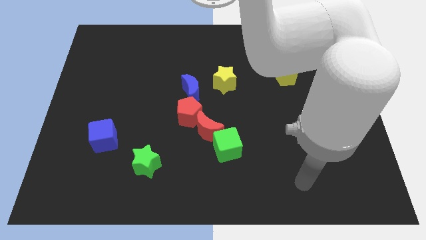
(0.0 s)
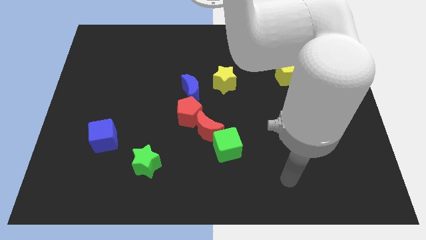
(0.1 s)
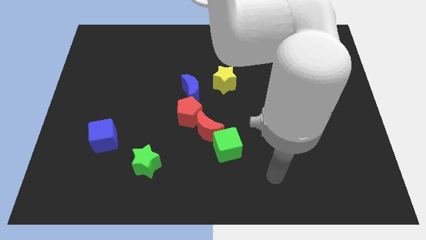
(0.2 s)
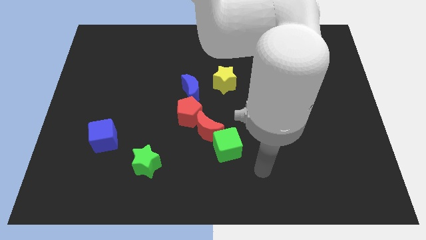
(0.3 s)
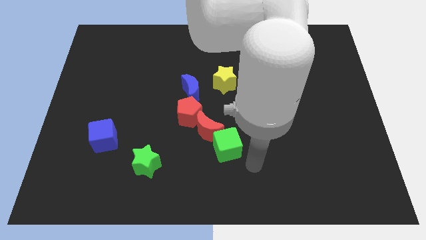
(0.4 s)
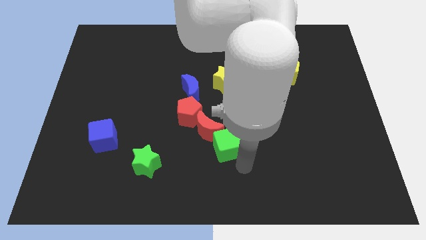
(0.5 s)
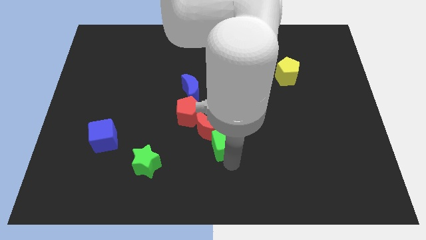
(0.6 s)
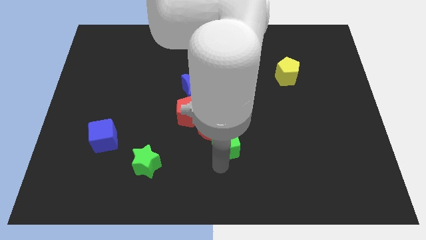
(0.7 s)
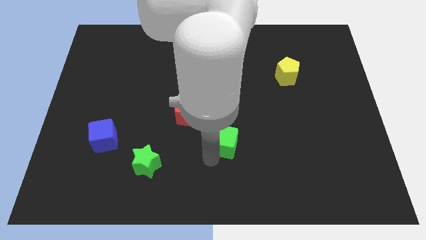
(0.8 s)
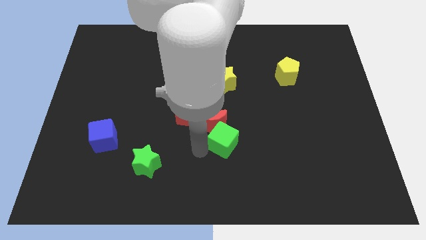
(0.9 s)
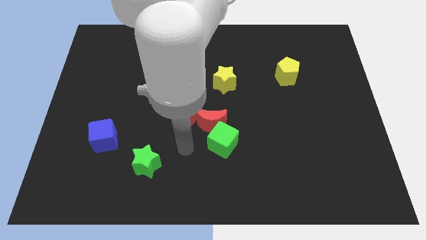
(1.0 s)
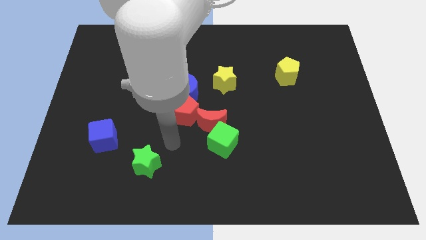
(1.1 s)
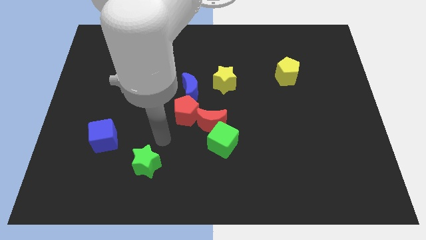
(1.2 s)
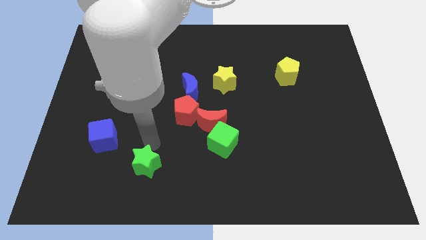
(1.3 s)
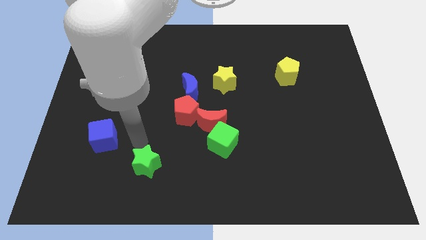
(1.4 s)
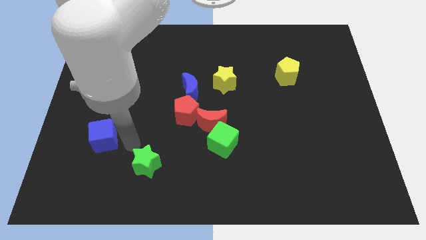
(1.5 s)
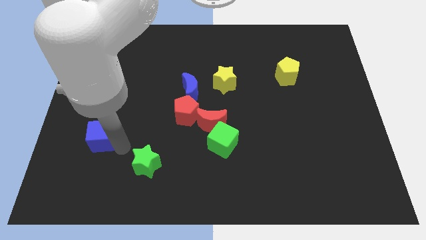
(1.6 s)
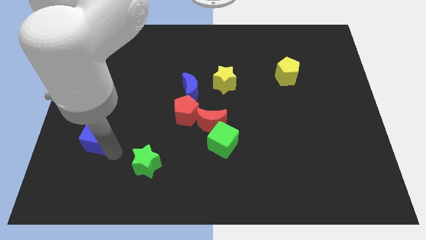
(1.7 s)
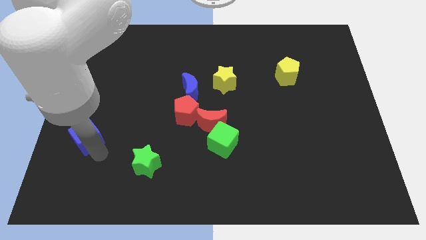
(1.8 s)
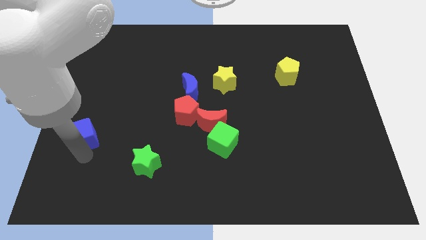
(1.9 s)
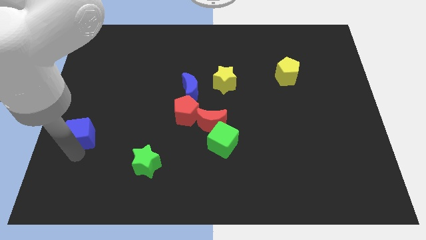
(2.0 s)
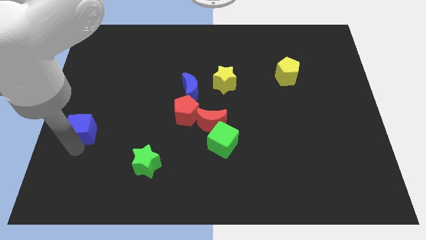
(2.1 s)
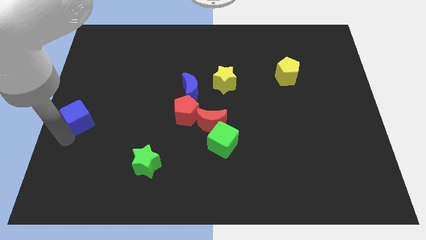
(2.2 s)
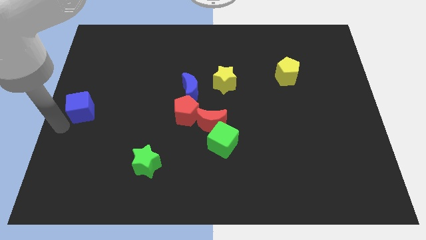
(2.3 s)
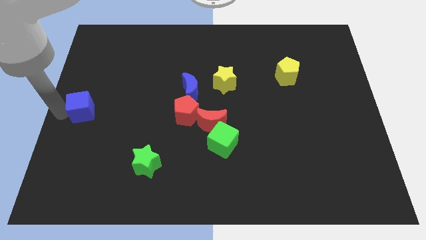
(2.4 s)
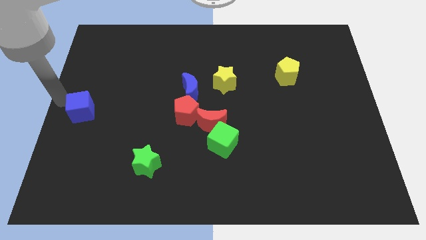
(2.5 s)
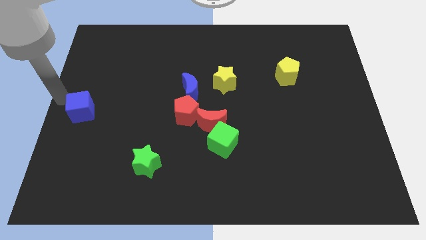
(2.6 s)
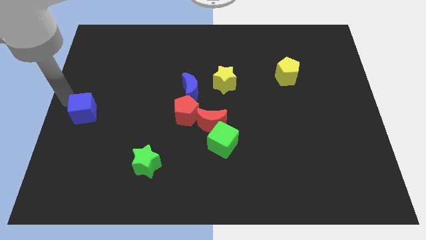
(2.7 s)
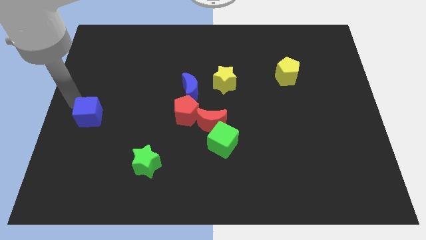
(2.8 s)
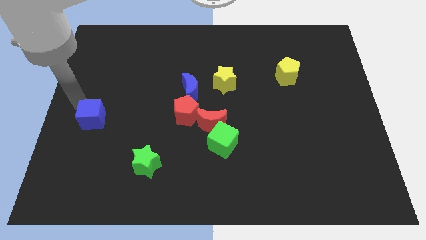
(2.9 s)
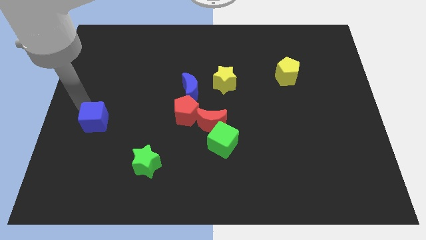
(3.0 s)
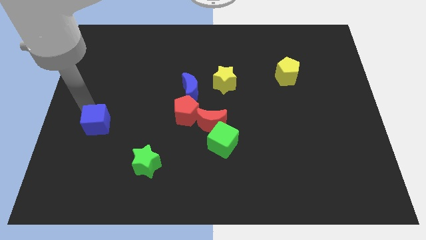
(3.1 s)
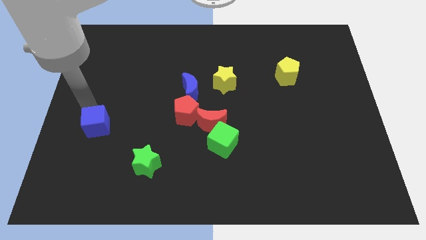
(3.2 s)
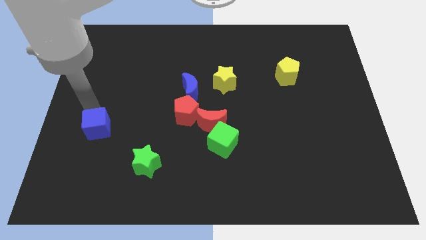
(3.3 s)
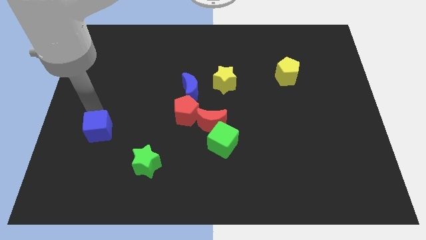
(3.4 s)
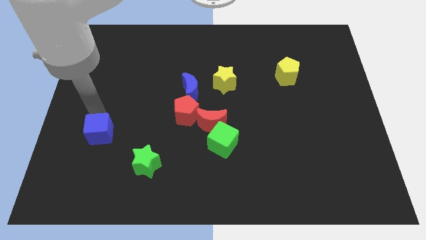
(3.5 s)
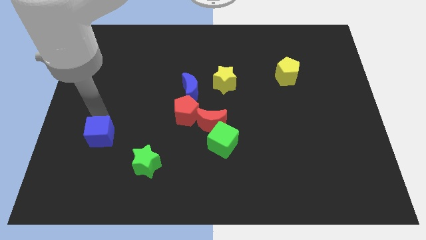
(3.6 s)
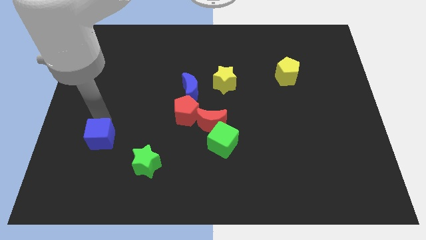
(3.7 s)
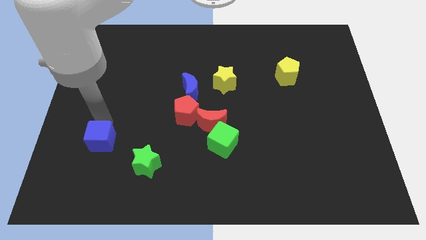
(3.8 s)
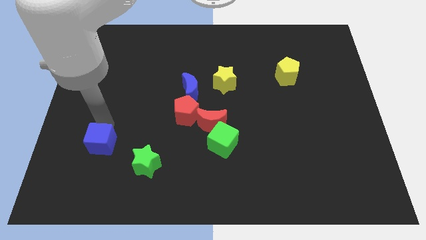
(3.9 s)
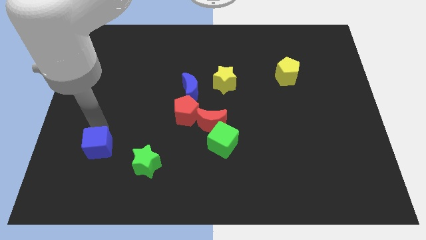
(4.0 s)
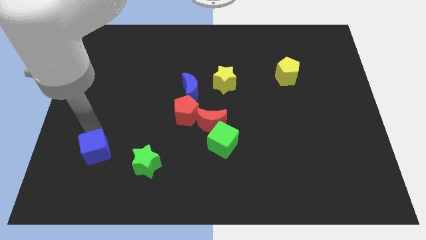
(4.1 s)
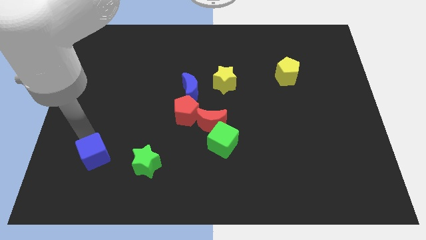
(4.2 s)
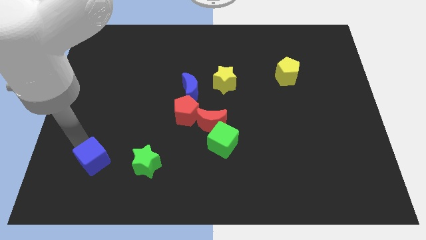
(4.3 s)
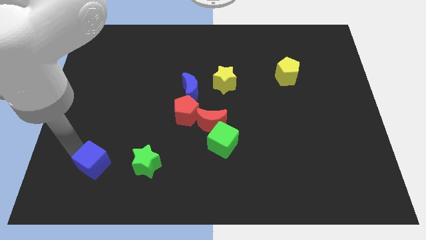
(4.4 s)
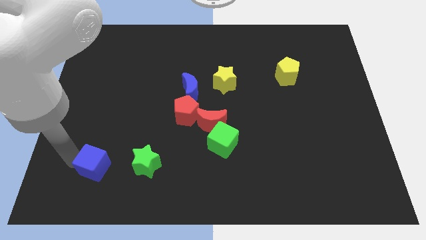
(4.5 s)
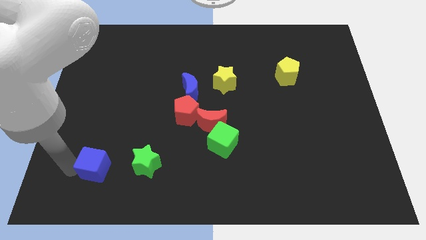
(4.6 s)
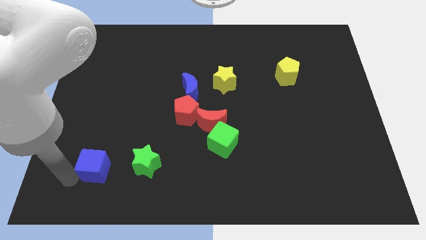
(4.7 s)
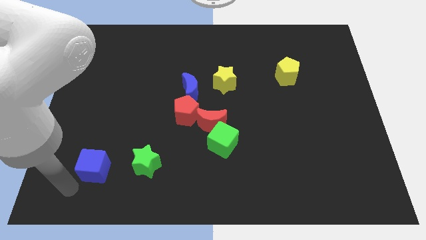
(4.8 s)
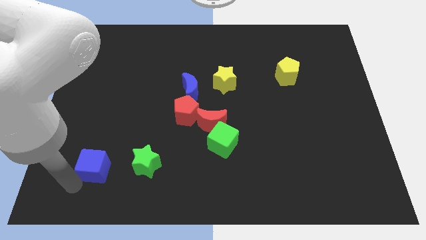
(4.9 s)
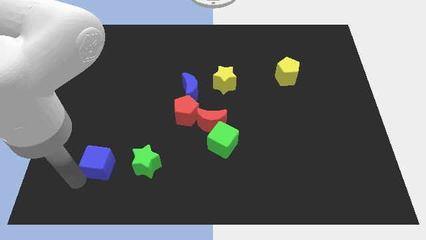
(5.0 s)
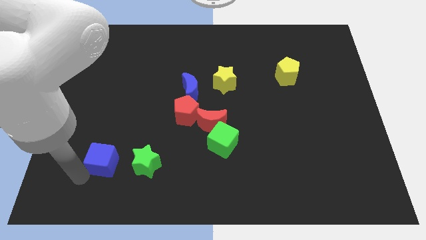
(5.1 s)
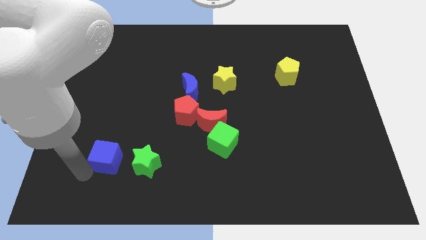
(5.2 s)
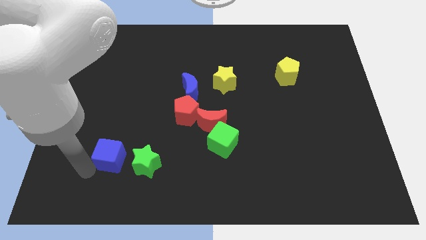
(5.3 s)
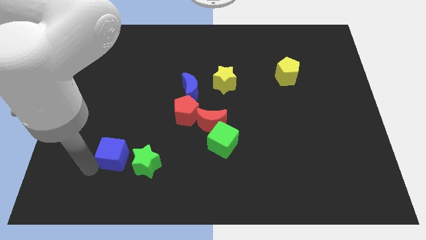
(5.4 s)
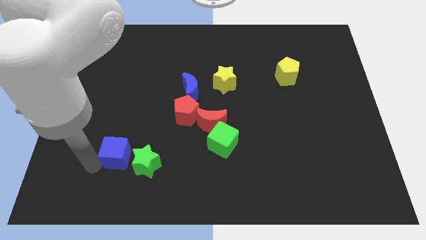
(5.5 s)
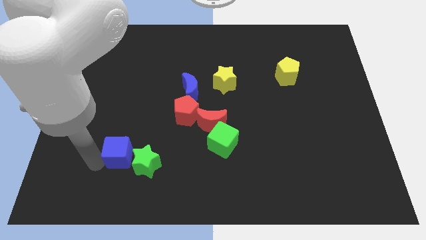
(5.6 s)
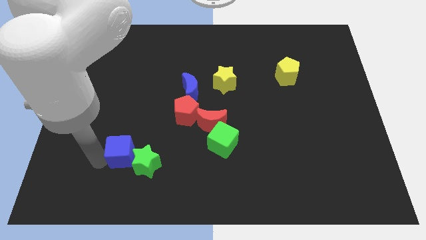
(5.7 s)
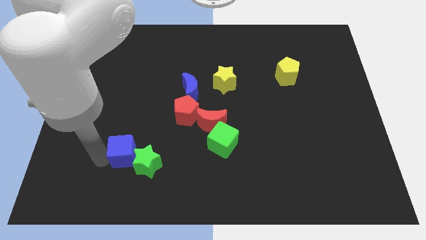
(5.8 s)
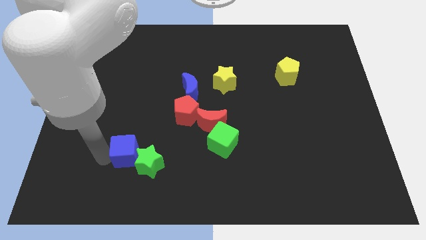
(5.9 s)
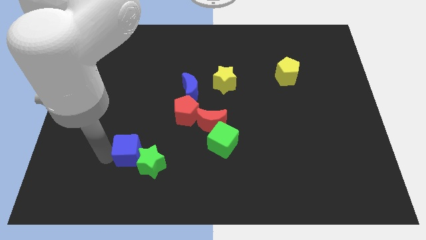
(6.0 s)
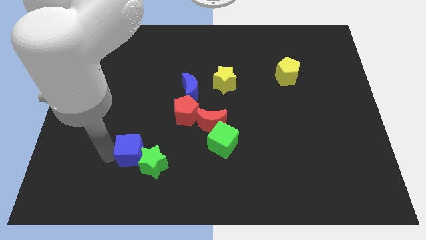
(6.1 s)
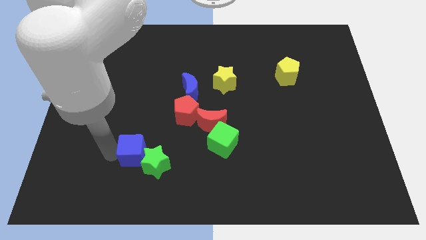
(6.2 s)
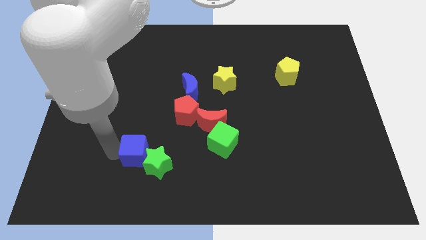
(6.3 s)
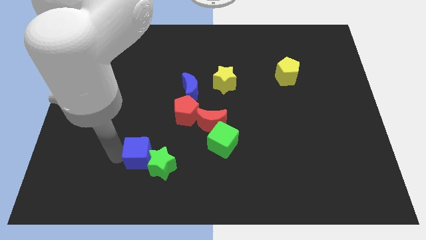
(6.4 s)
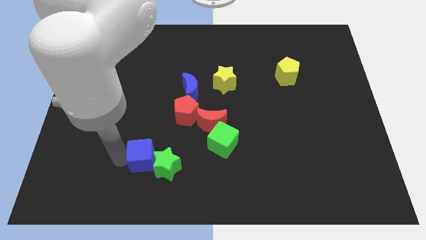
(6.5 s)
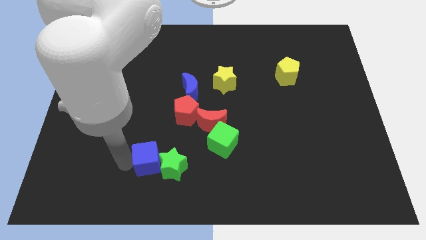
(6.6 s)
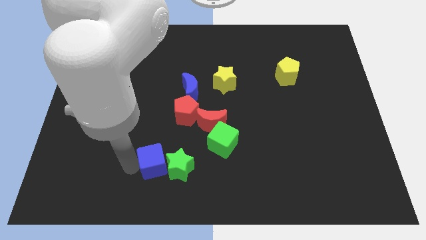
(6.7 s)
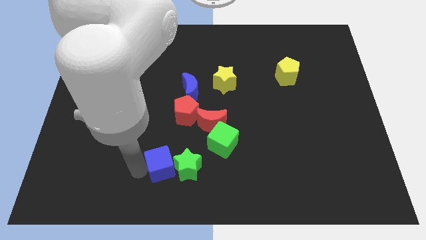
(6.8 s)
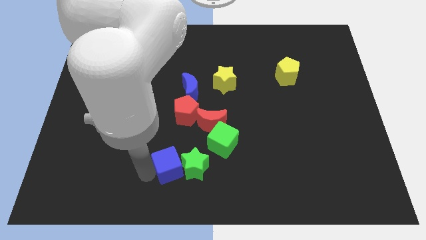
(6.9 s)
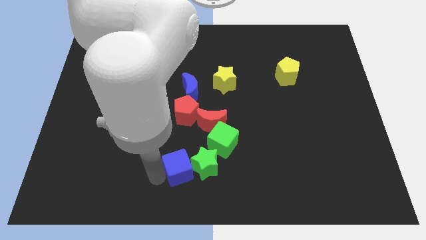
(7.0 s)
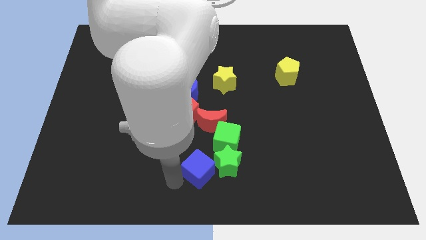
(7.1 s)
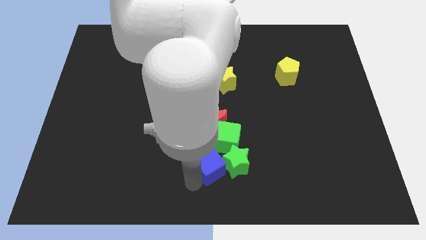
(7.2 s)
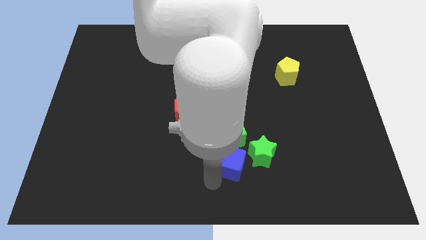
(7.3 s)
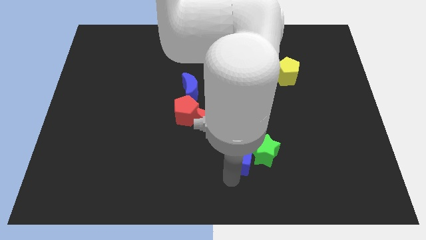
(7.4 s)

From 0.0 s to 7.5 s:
slide the blue cube next to the green cube
